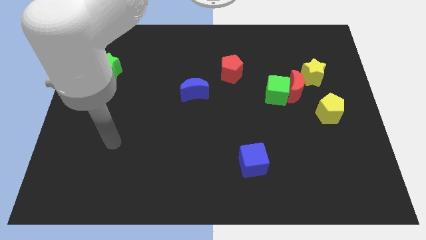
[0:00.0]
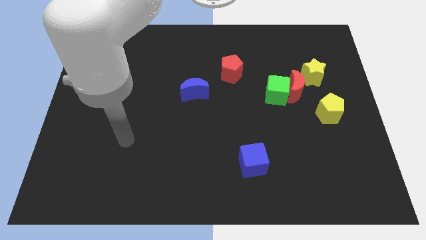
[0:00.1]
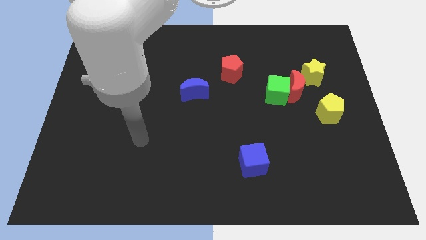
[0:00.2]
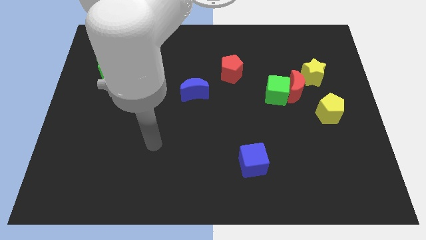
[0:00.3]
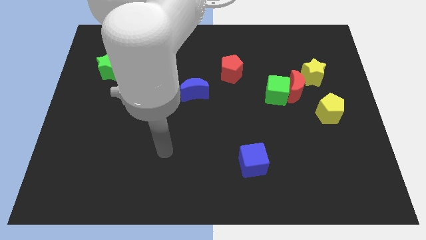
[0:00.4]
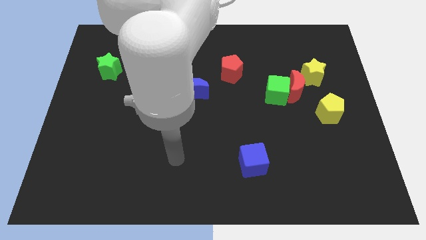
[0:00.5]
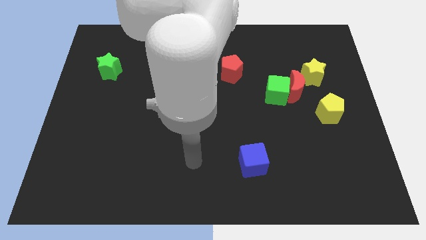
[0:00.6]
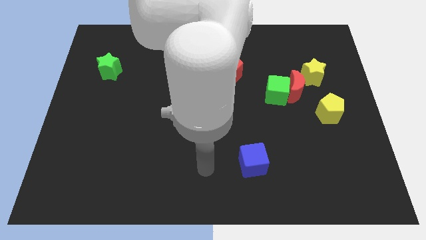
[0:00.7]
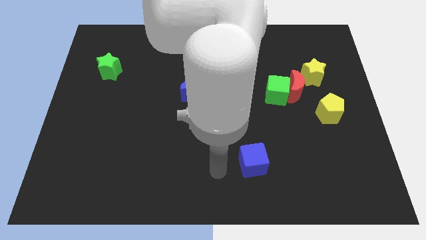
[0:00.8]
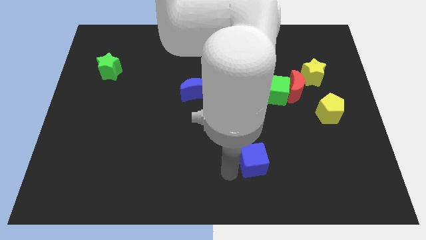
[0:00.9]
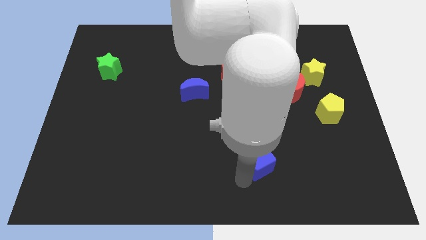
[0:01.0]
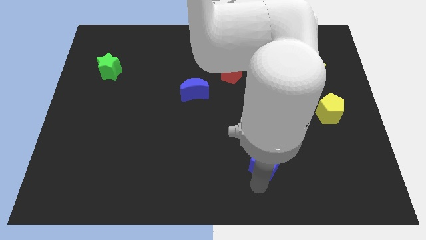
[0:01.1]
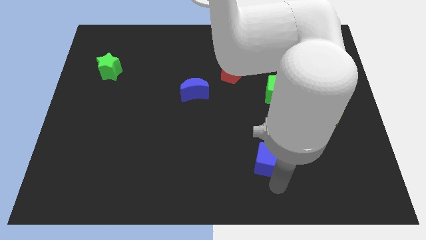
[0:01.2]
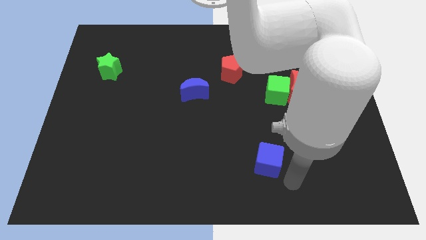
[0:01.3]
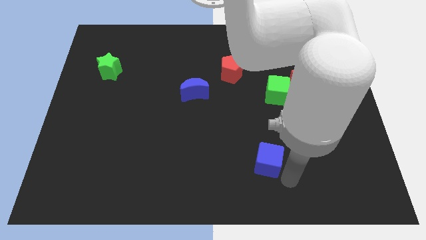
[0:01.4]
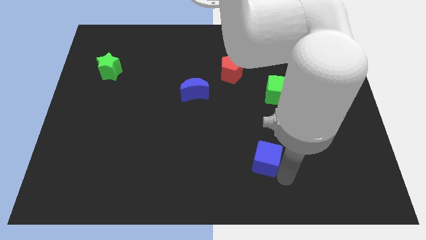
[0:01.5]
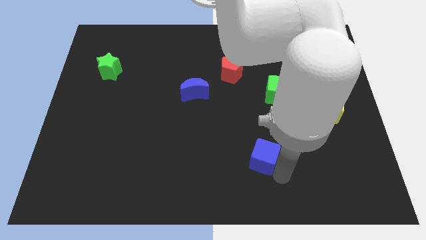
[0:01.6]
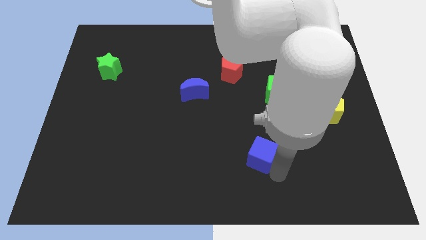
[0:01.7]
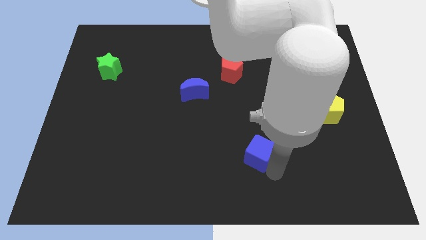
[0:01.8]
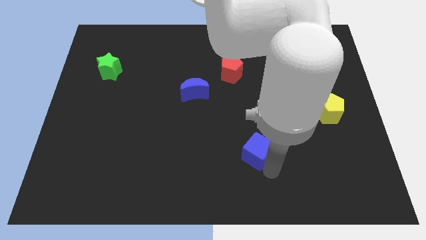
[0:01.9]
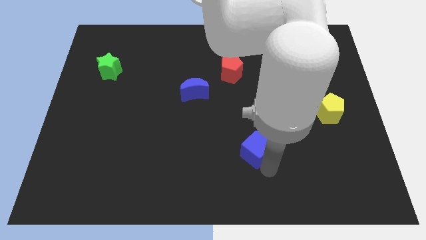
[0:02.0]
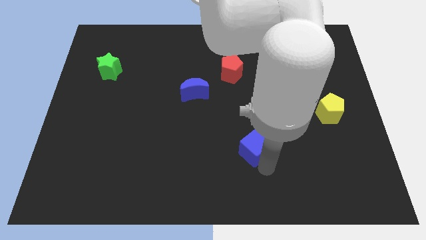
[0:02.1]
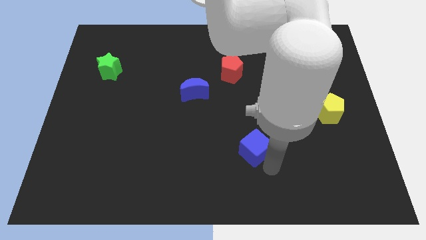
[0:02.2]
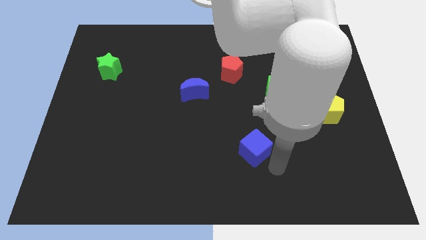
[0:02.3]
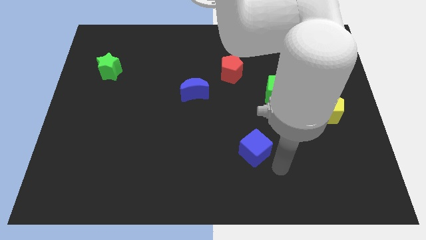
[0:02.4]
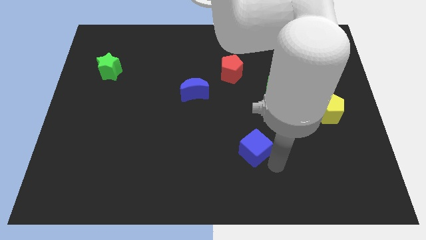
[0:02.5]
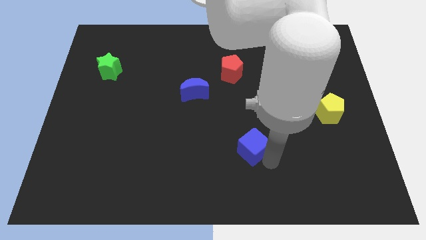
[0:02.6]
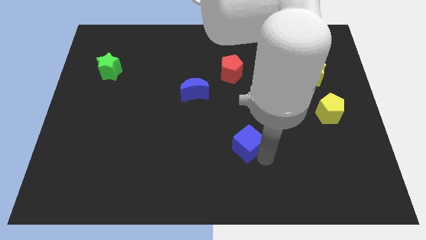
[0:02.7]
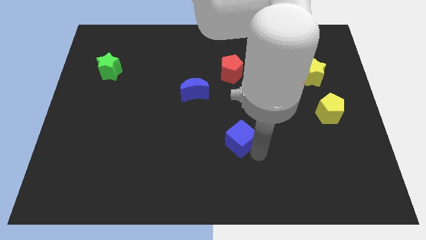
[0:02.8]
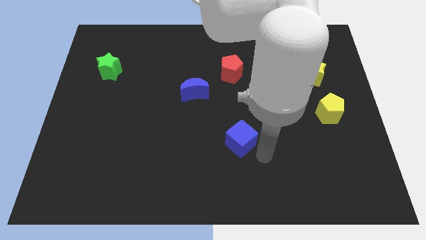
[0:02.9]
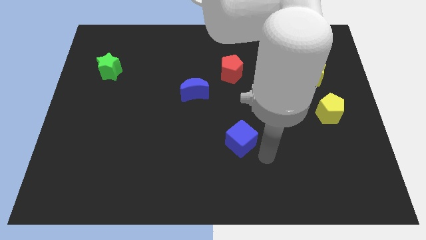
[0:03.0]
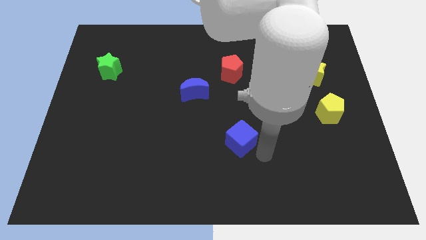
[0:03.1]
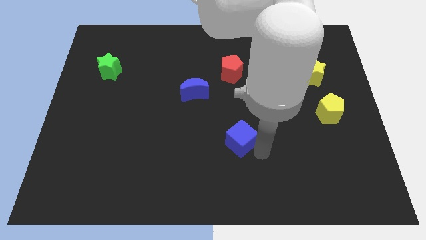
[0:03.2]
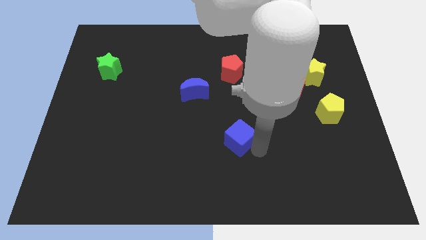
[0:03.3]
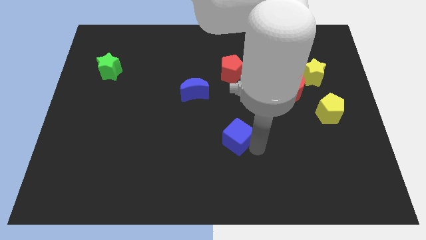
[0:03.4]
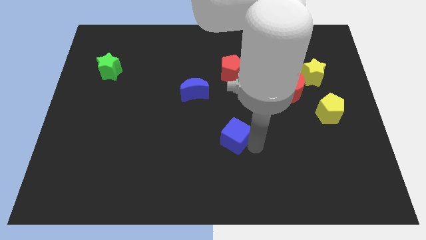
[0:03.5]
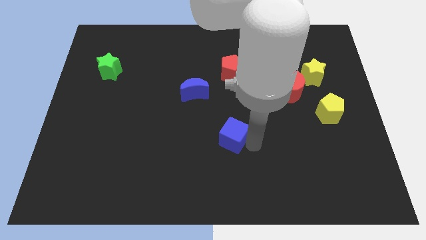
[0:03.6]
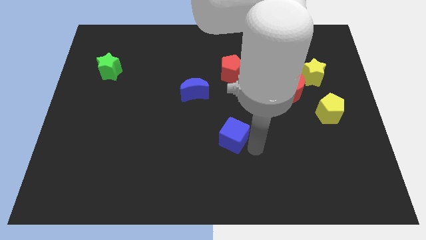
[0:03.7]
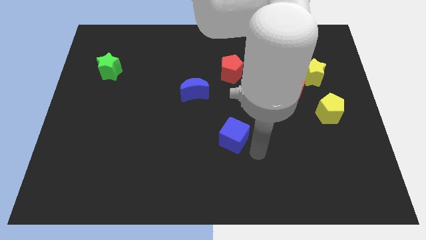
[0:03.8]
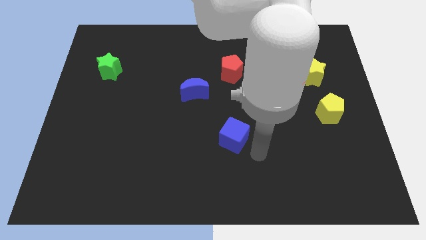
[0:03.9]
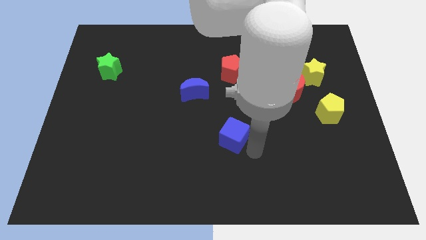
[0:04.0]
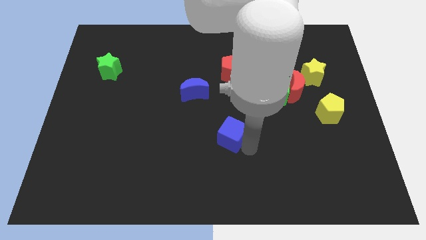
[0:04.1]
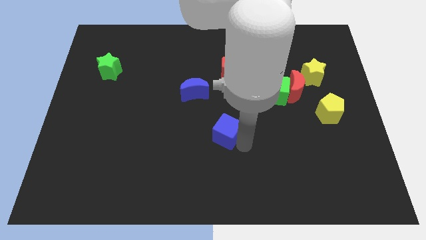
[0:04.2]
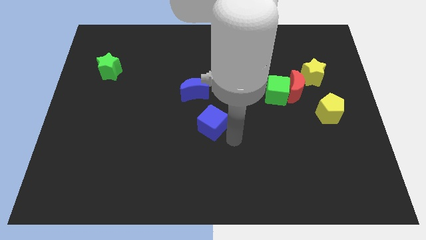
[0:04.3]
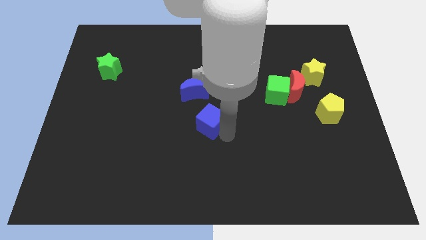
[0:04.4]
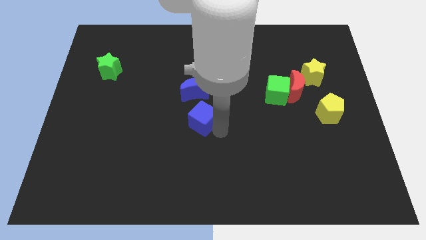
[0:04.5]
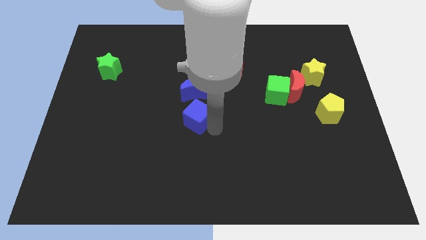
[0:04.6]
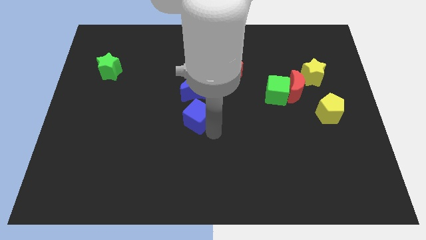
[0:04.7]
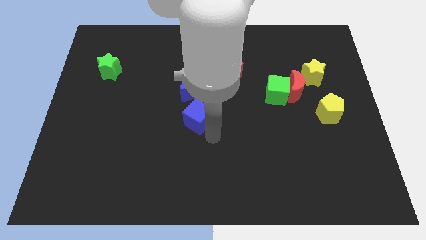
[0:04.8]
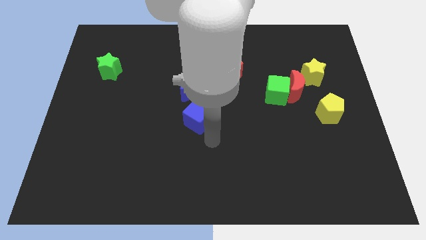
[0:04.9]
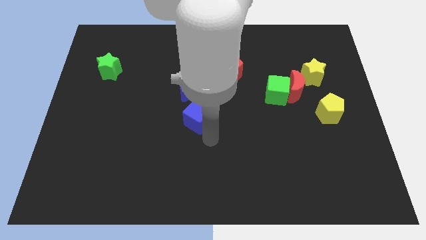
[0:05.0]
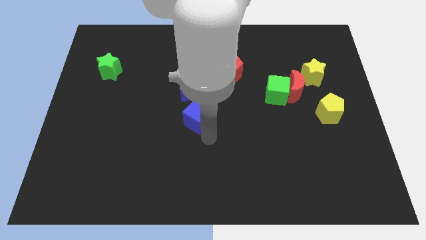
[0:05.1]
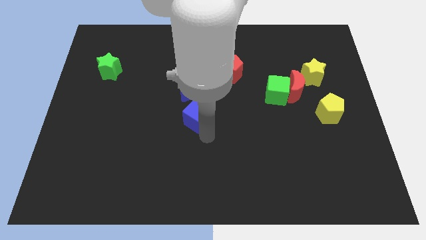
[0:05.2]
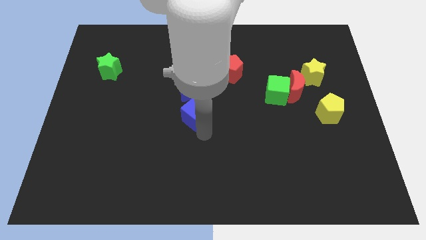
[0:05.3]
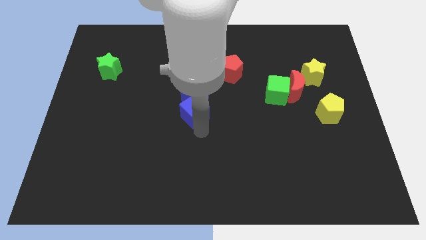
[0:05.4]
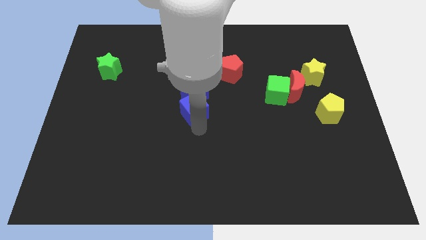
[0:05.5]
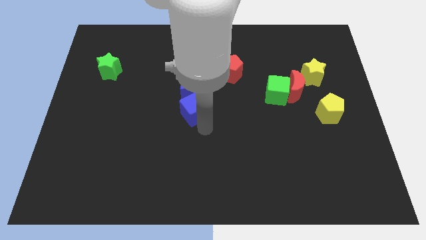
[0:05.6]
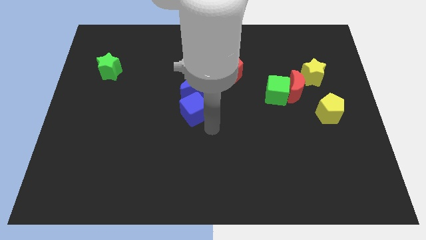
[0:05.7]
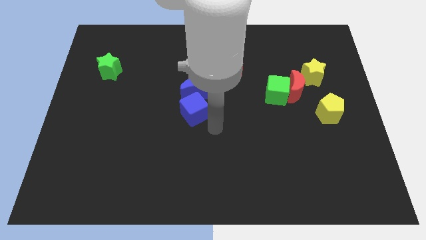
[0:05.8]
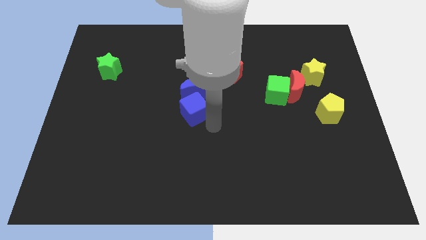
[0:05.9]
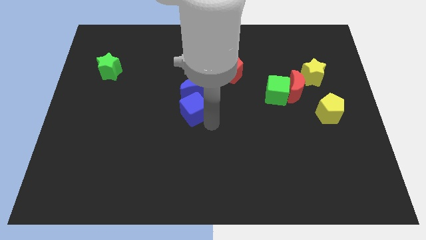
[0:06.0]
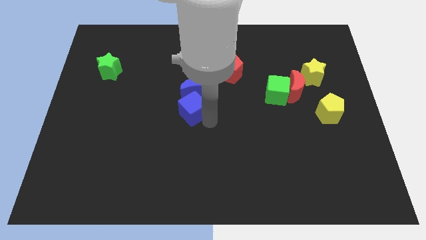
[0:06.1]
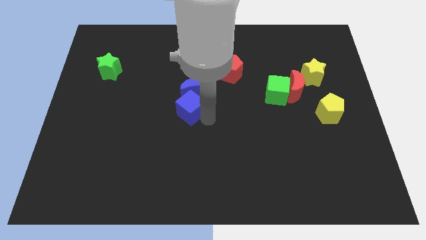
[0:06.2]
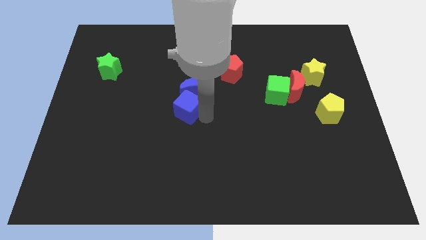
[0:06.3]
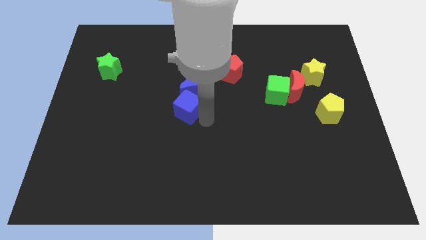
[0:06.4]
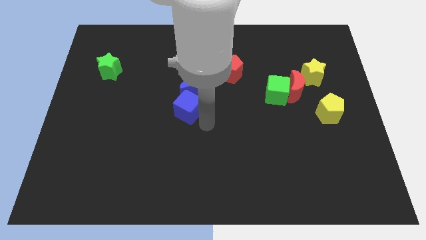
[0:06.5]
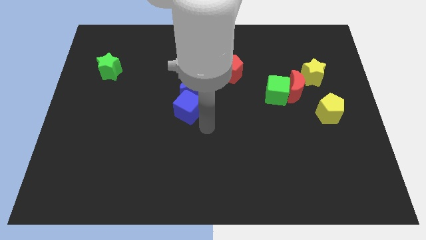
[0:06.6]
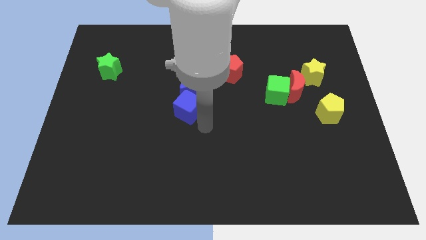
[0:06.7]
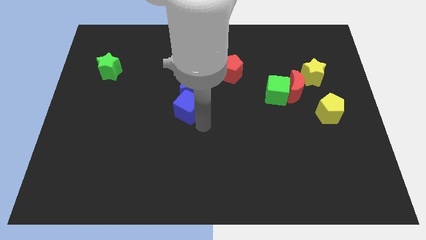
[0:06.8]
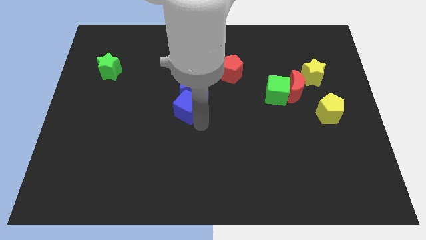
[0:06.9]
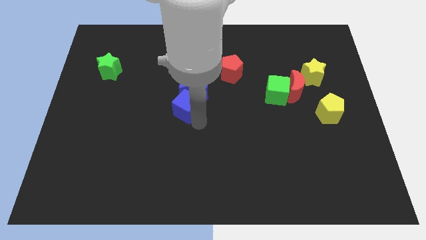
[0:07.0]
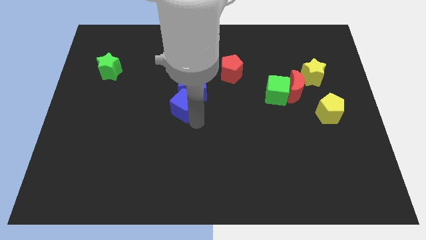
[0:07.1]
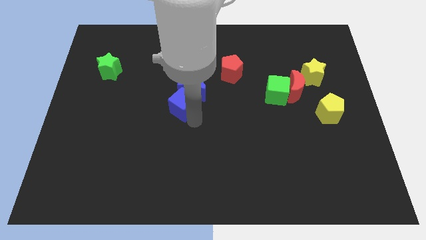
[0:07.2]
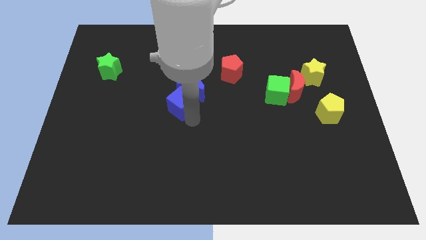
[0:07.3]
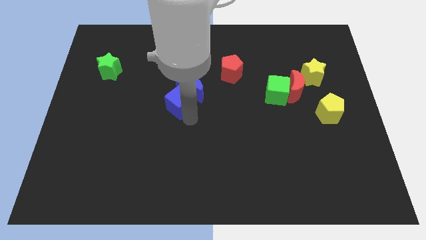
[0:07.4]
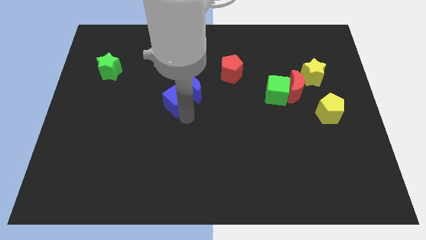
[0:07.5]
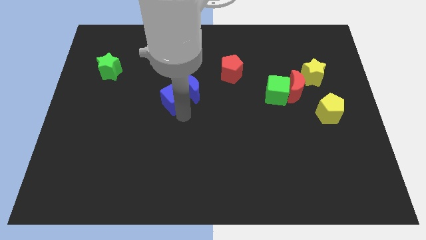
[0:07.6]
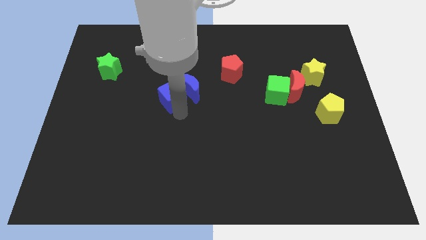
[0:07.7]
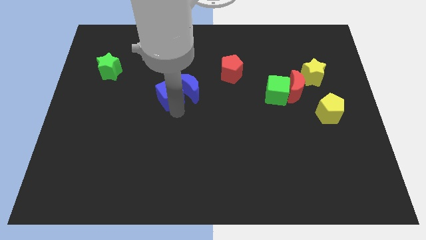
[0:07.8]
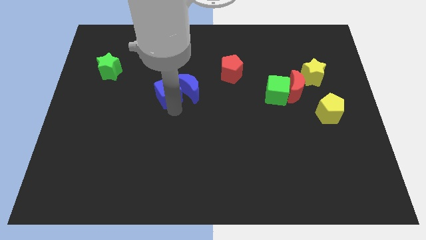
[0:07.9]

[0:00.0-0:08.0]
move the blue cube to the top left of the blue moon
